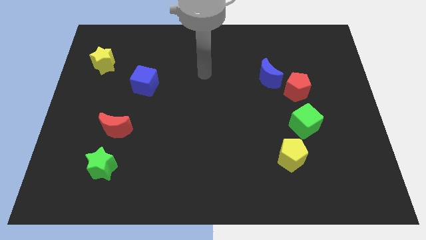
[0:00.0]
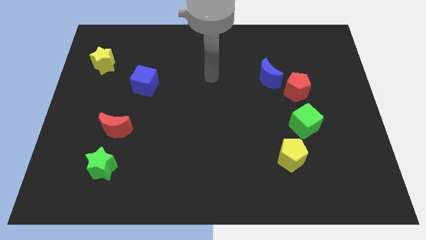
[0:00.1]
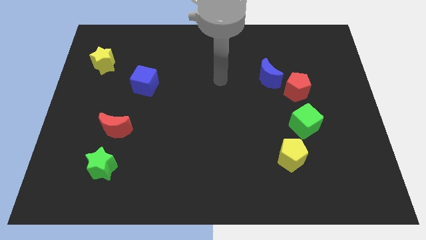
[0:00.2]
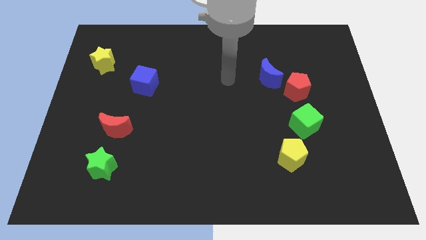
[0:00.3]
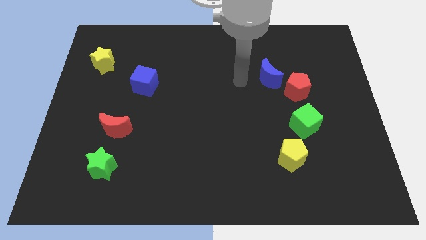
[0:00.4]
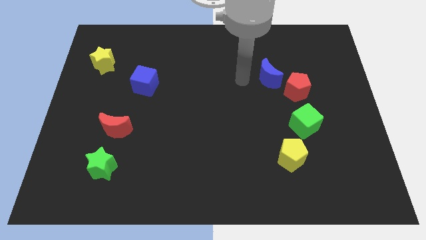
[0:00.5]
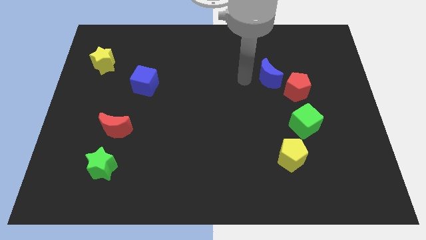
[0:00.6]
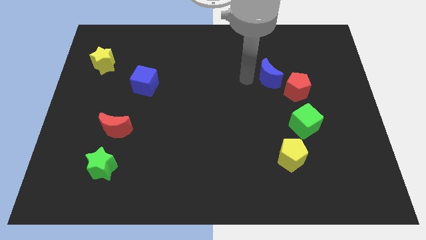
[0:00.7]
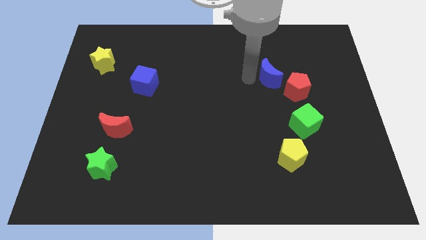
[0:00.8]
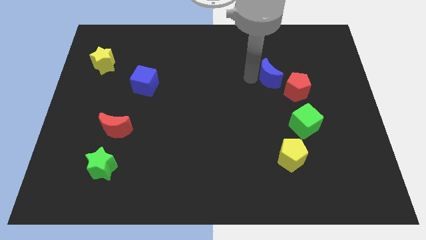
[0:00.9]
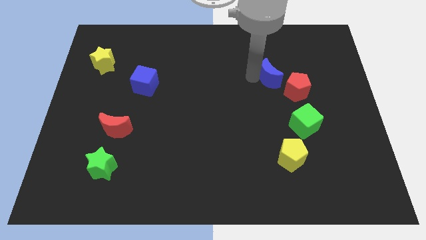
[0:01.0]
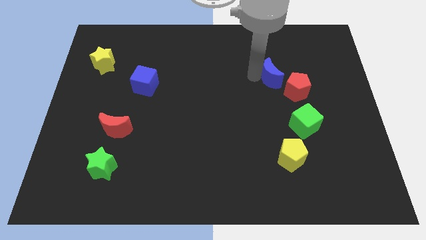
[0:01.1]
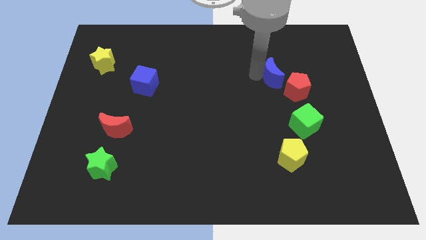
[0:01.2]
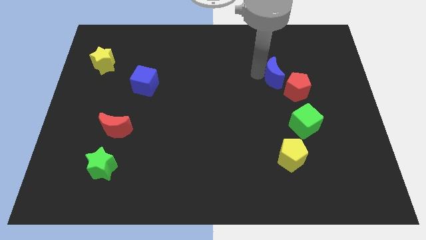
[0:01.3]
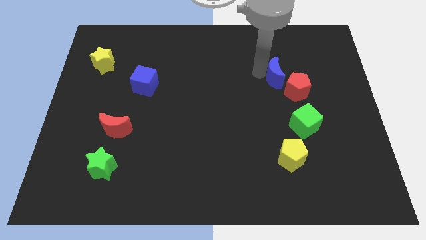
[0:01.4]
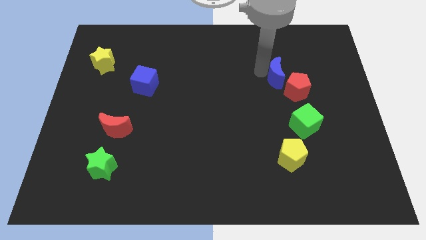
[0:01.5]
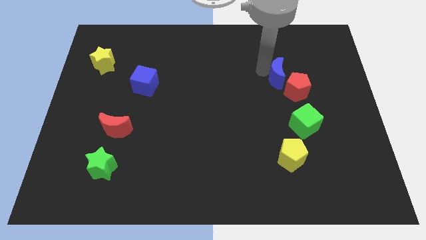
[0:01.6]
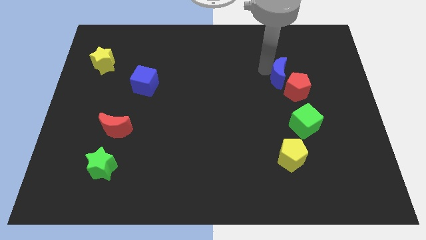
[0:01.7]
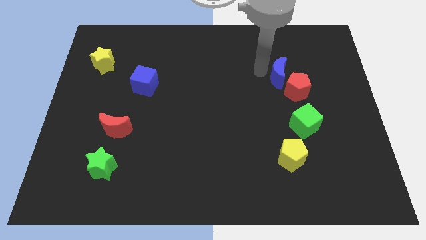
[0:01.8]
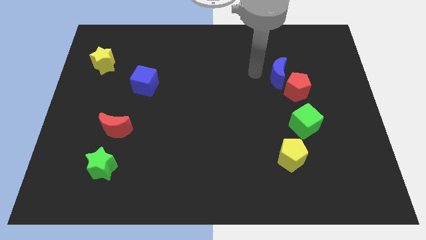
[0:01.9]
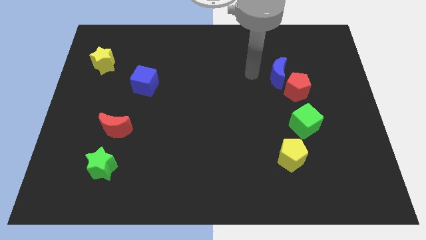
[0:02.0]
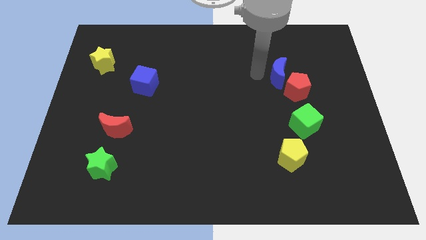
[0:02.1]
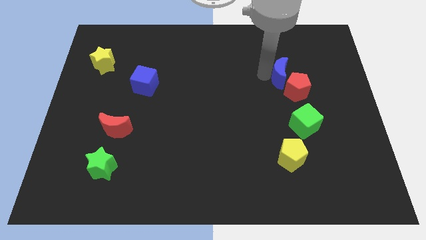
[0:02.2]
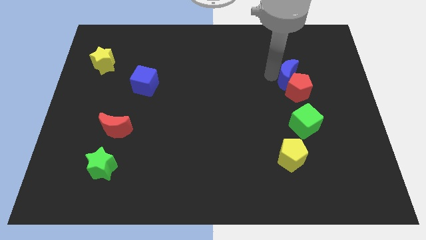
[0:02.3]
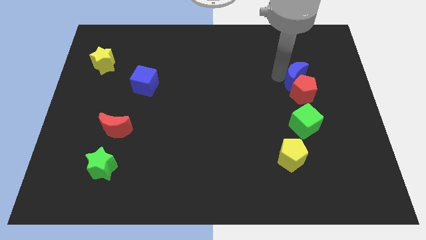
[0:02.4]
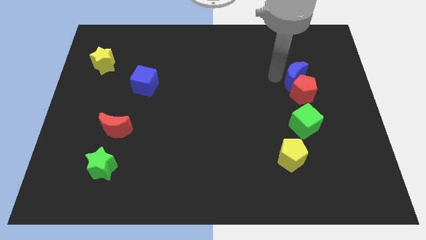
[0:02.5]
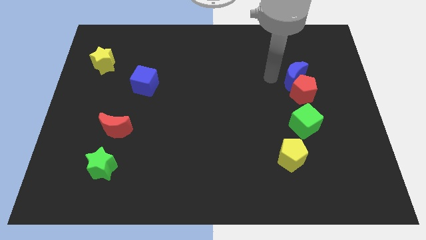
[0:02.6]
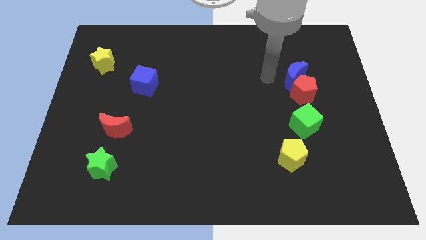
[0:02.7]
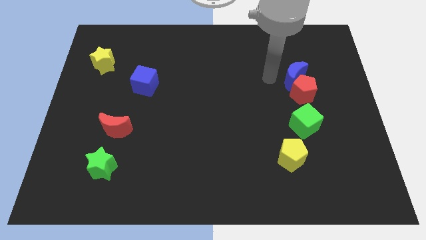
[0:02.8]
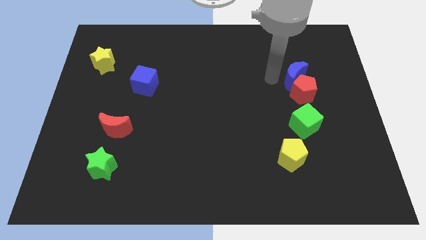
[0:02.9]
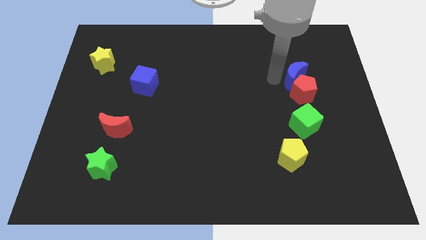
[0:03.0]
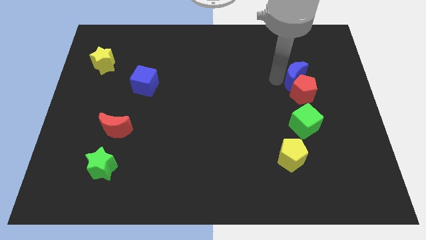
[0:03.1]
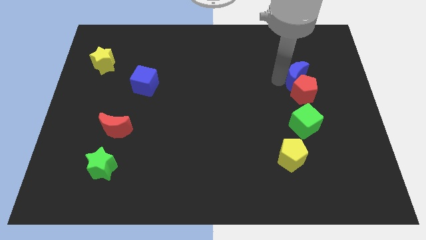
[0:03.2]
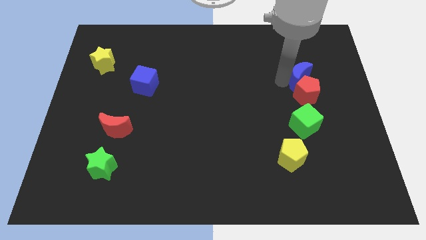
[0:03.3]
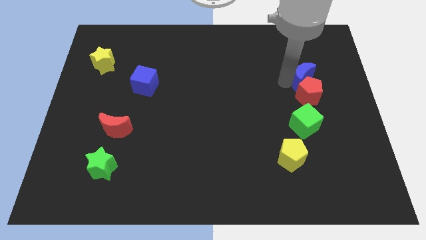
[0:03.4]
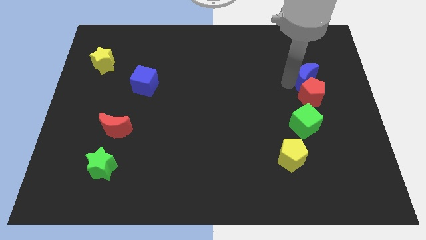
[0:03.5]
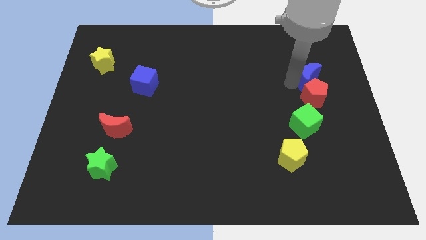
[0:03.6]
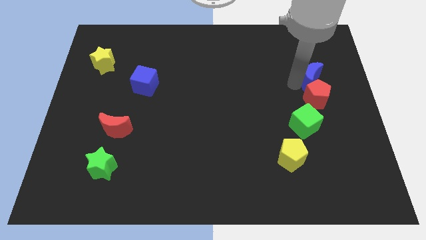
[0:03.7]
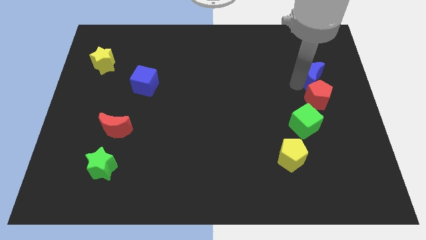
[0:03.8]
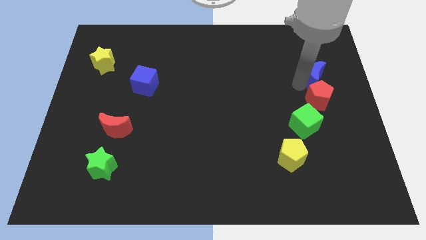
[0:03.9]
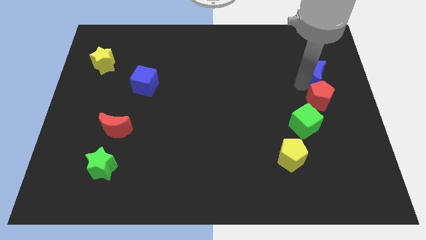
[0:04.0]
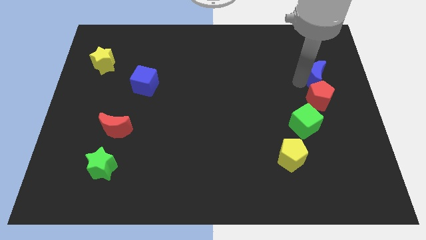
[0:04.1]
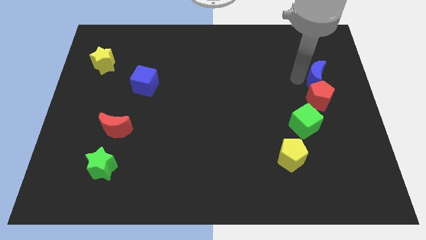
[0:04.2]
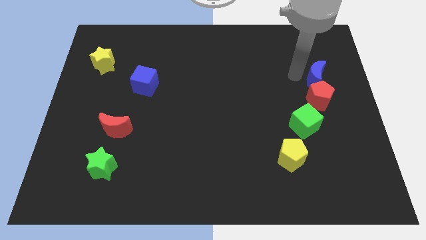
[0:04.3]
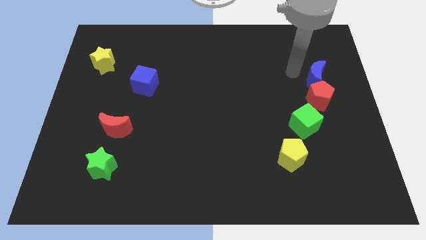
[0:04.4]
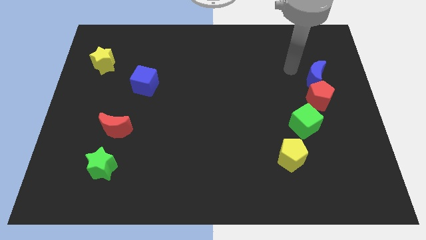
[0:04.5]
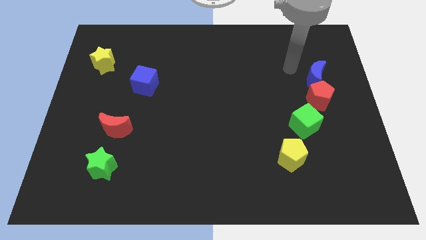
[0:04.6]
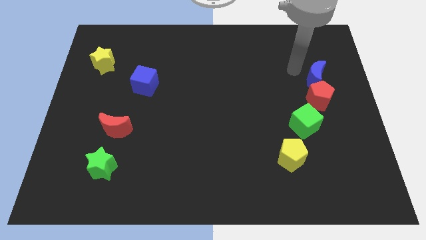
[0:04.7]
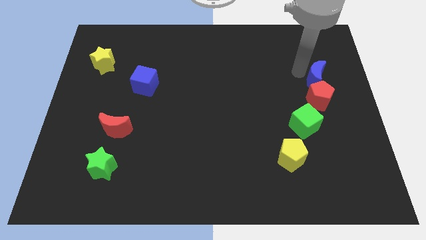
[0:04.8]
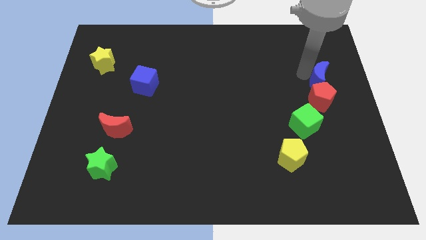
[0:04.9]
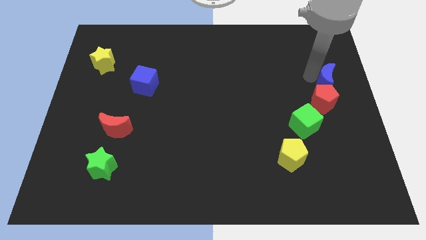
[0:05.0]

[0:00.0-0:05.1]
slide the blue moon to the right side of the board

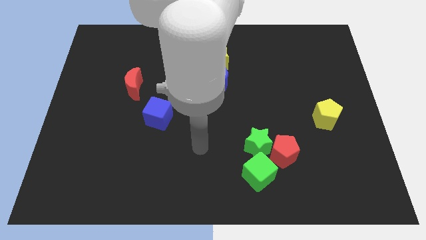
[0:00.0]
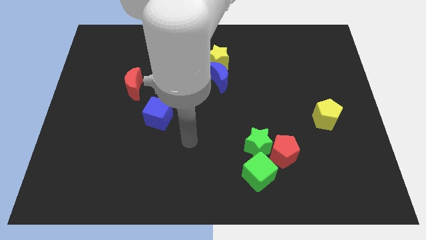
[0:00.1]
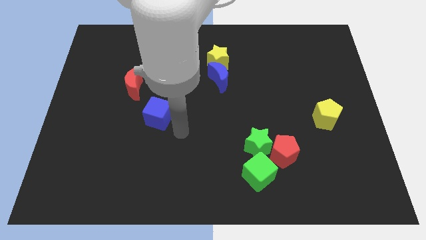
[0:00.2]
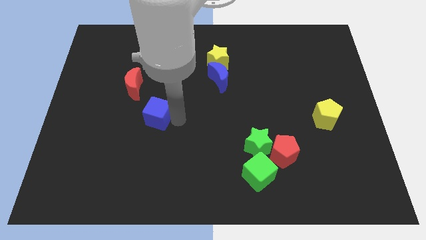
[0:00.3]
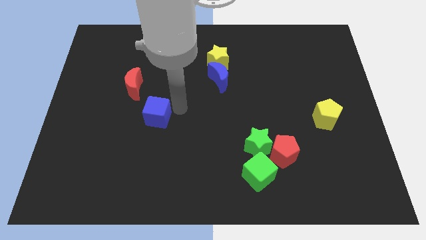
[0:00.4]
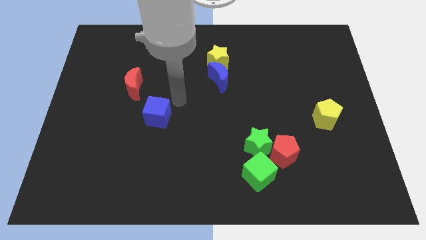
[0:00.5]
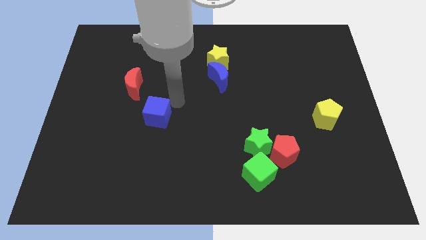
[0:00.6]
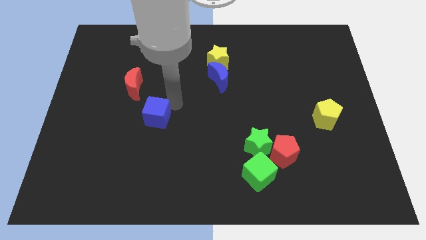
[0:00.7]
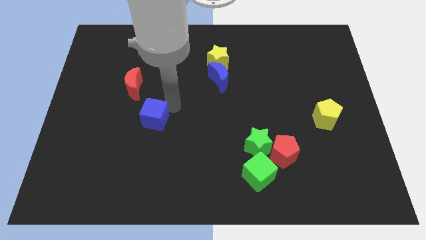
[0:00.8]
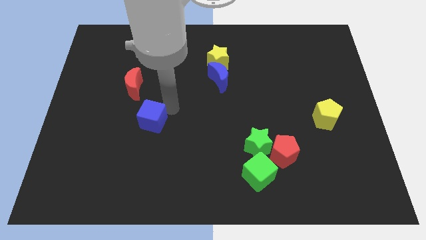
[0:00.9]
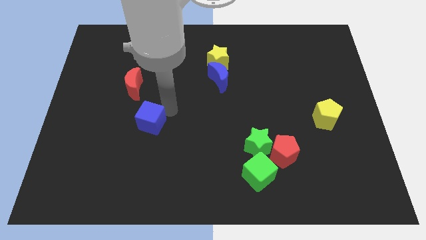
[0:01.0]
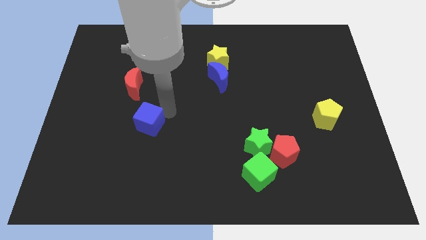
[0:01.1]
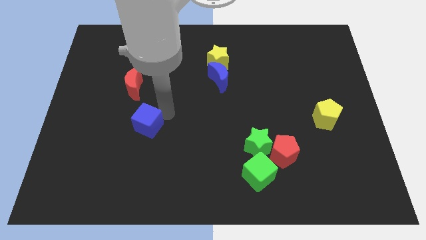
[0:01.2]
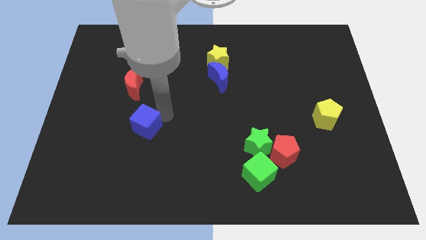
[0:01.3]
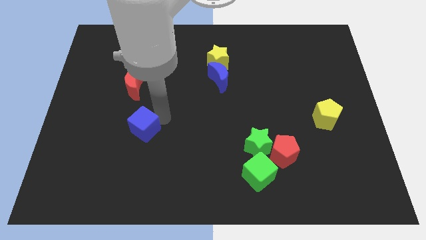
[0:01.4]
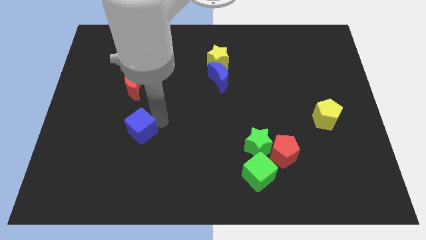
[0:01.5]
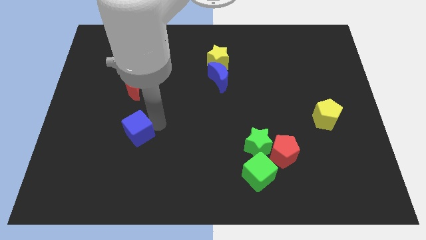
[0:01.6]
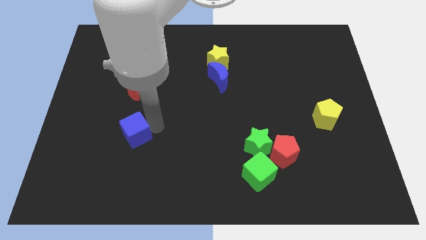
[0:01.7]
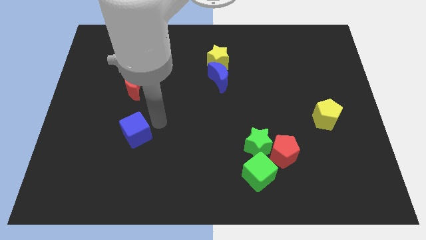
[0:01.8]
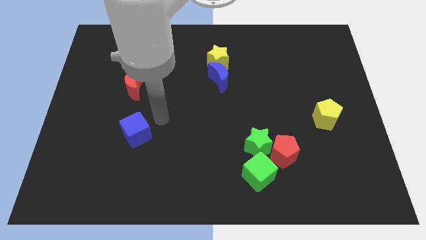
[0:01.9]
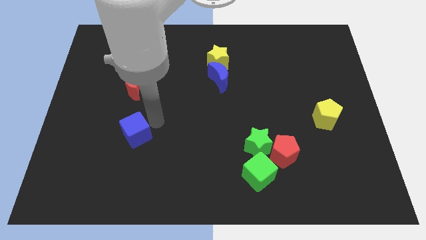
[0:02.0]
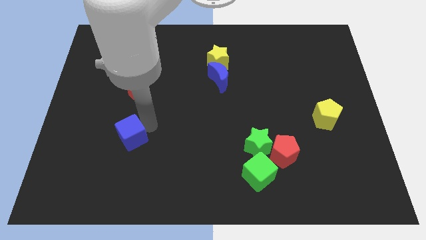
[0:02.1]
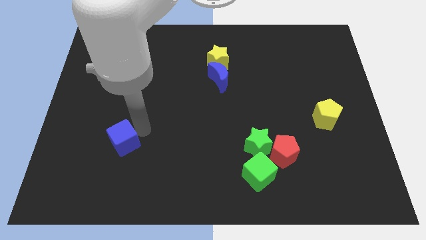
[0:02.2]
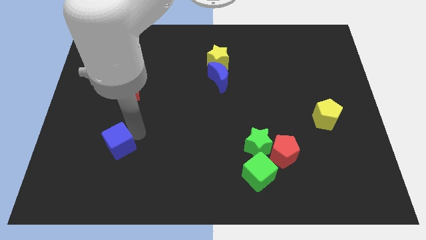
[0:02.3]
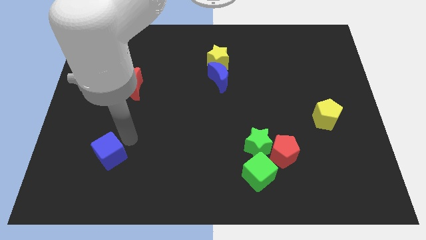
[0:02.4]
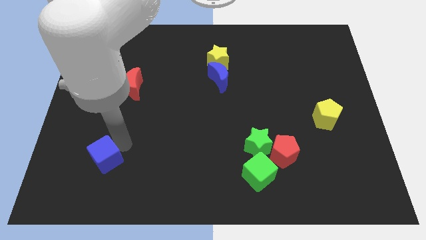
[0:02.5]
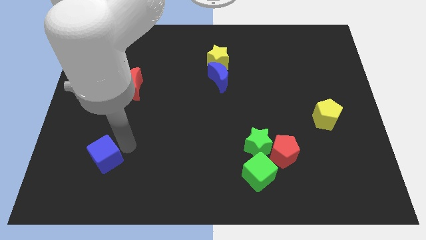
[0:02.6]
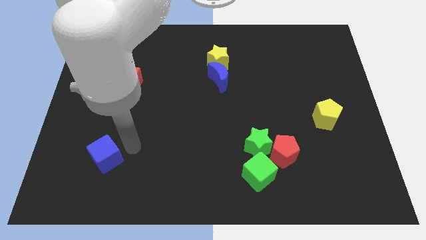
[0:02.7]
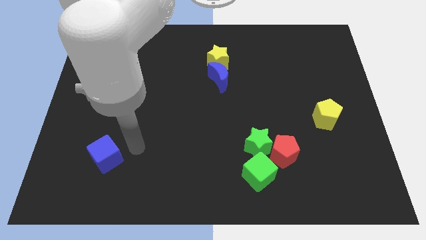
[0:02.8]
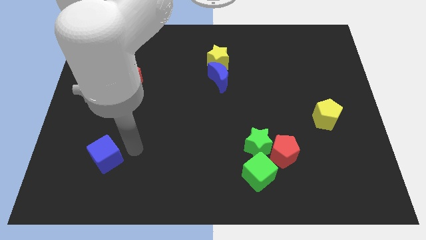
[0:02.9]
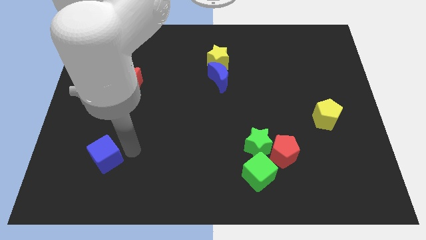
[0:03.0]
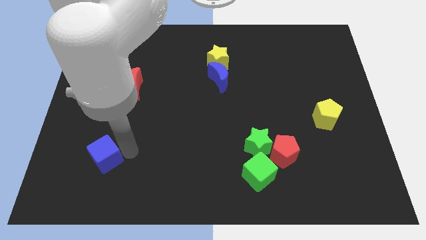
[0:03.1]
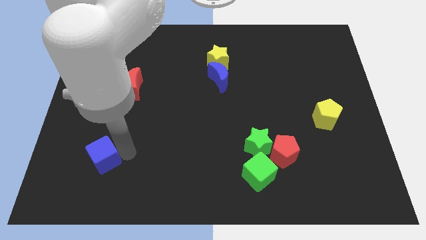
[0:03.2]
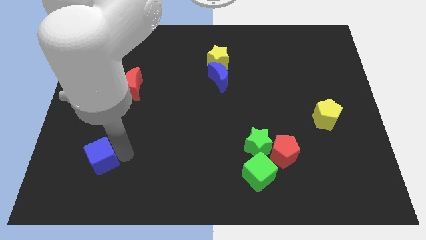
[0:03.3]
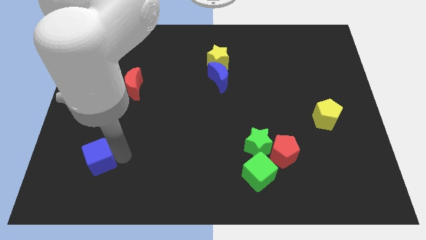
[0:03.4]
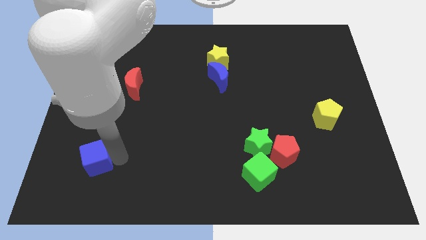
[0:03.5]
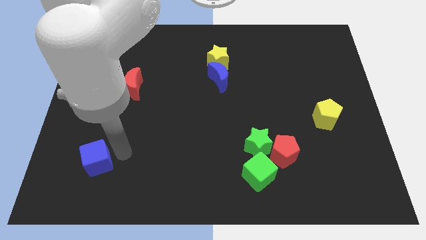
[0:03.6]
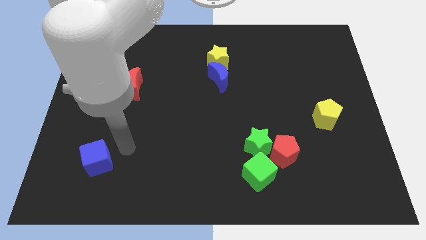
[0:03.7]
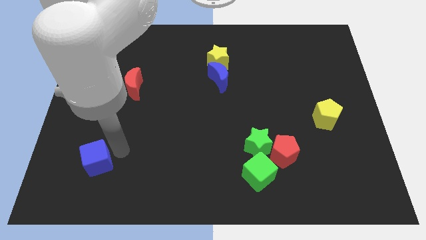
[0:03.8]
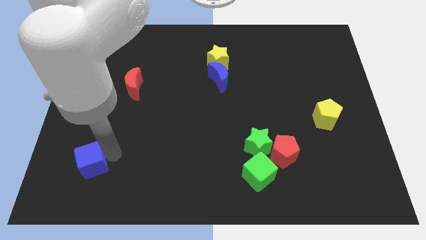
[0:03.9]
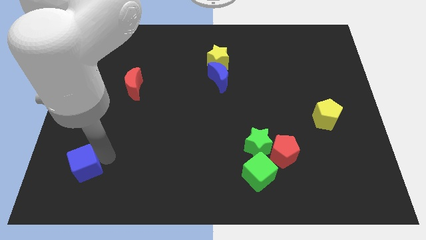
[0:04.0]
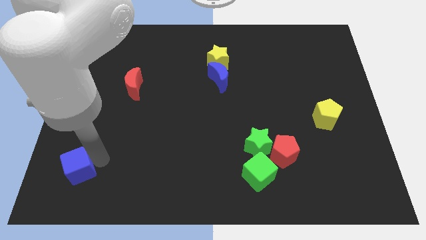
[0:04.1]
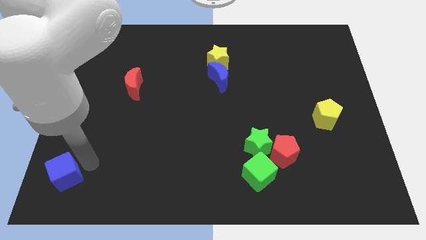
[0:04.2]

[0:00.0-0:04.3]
push the blue cube to the bottom left corner
